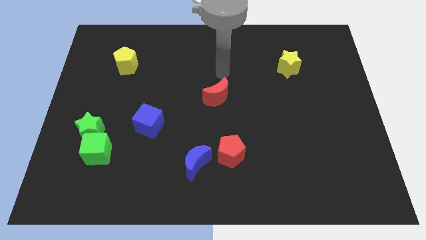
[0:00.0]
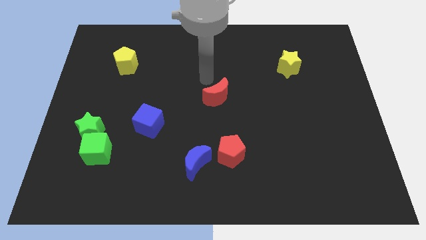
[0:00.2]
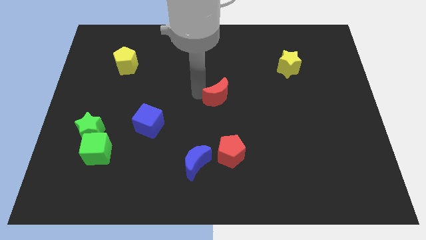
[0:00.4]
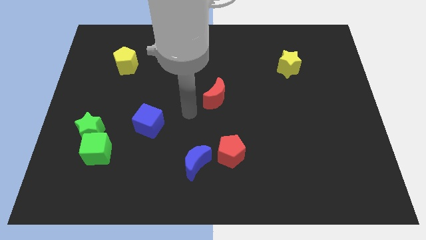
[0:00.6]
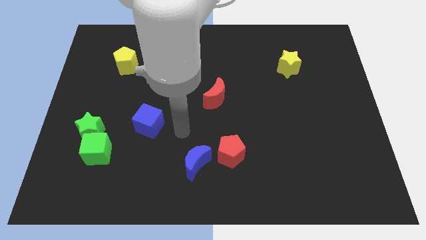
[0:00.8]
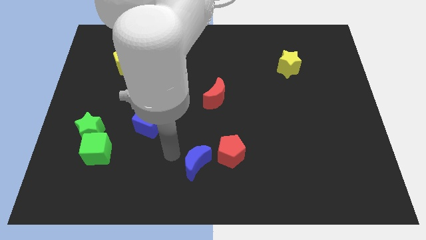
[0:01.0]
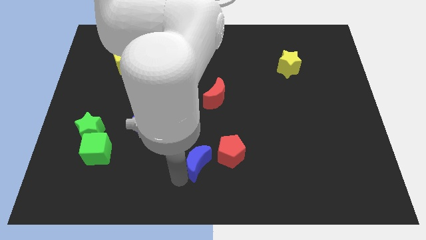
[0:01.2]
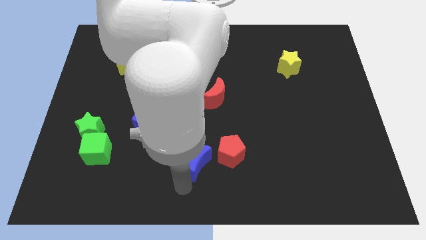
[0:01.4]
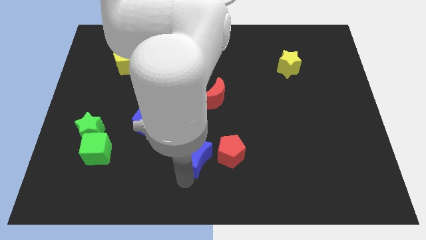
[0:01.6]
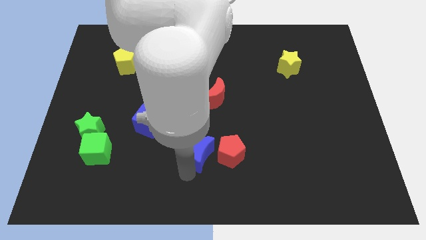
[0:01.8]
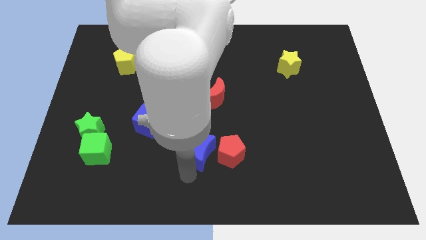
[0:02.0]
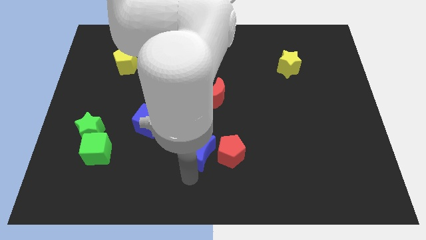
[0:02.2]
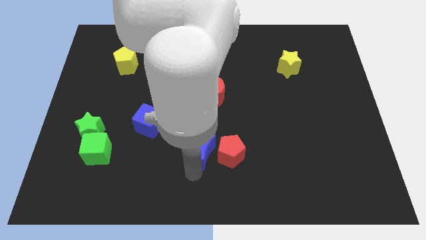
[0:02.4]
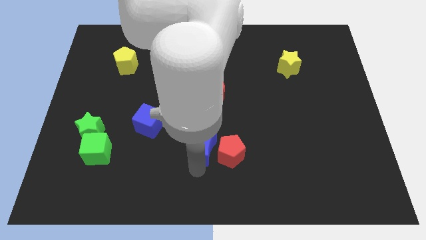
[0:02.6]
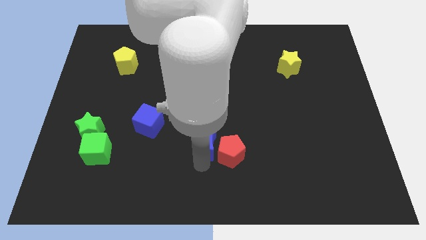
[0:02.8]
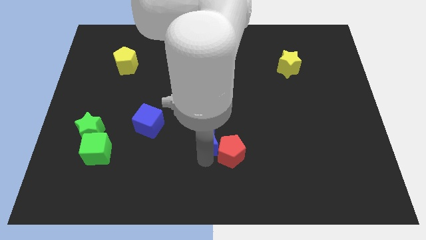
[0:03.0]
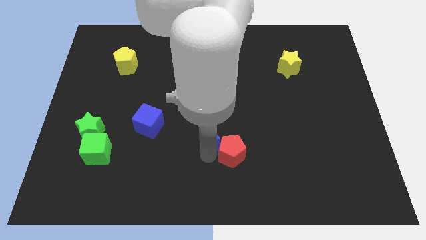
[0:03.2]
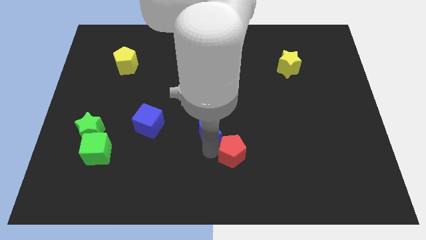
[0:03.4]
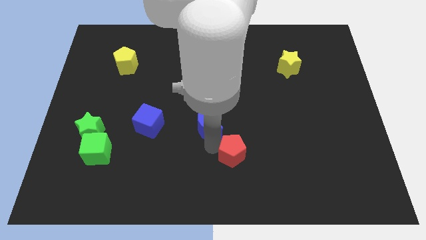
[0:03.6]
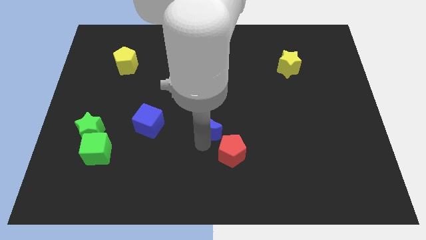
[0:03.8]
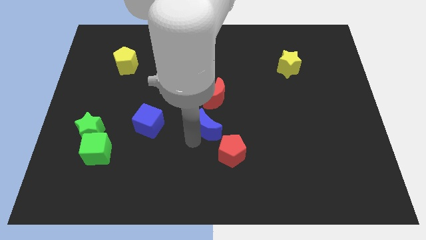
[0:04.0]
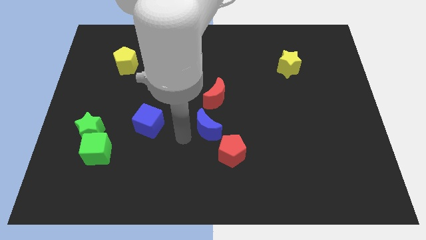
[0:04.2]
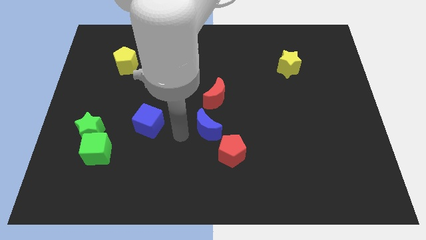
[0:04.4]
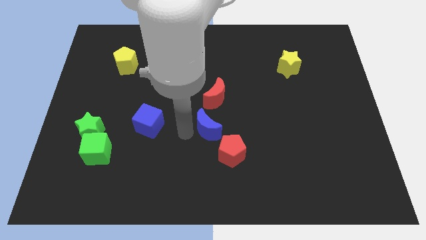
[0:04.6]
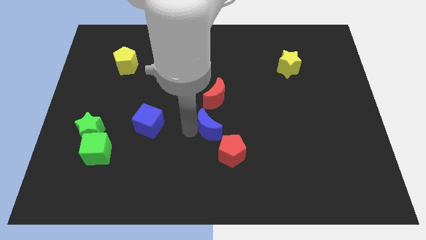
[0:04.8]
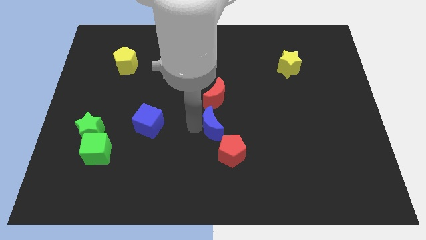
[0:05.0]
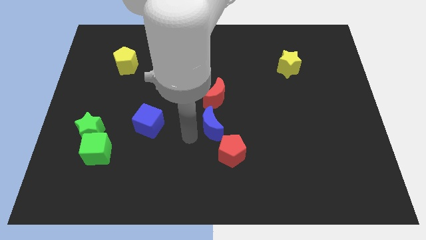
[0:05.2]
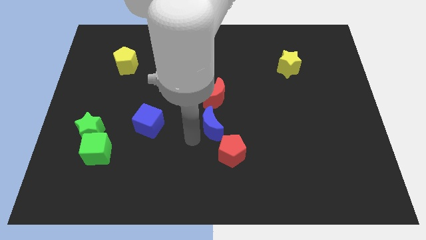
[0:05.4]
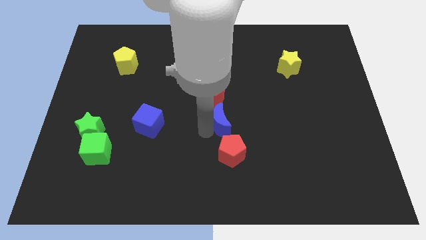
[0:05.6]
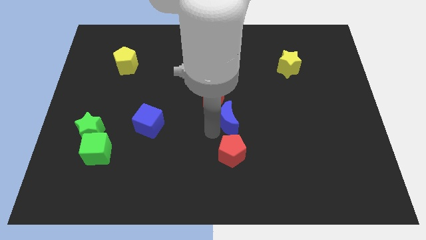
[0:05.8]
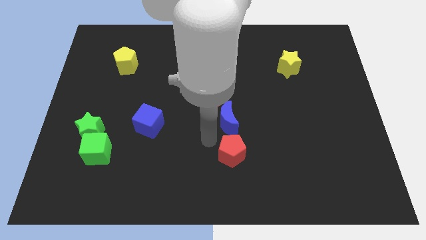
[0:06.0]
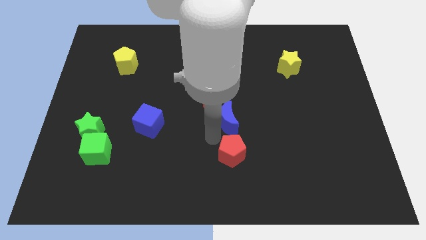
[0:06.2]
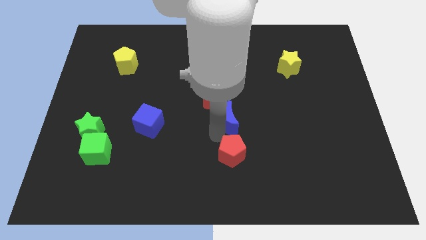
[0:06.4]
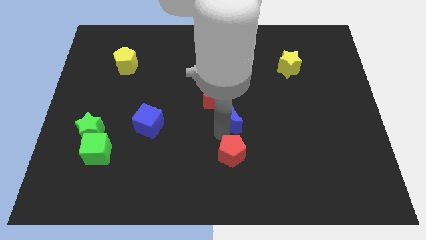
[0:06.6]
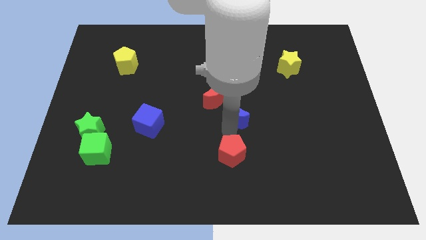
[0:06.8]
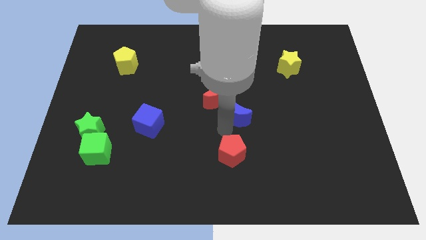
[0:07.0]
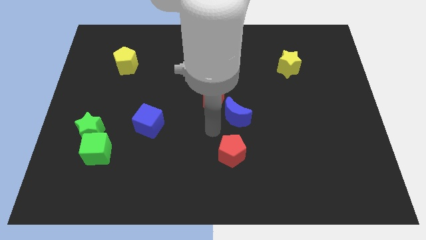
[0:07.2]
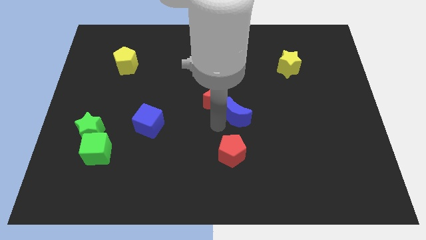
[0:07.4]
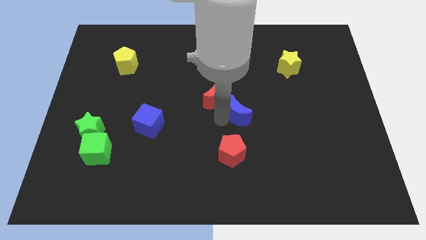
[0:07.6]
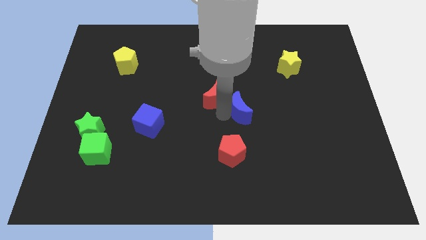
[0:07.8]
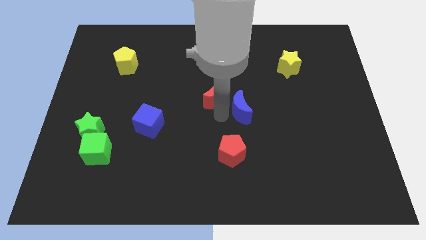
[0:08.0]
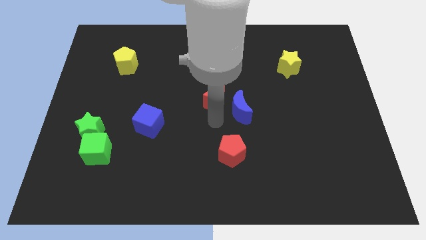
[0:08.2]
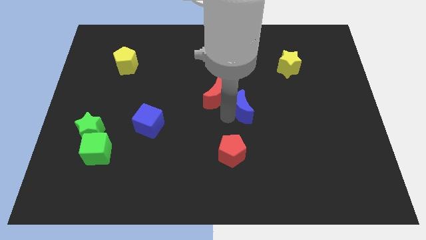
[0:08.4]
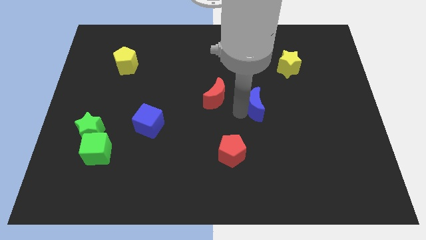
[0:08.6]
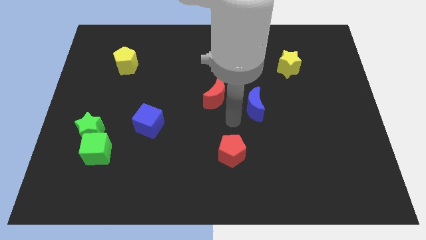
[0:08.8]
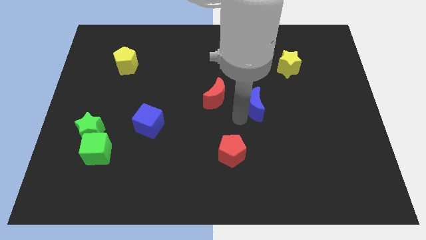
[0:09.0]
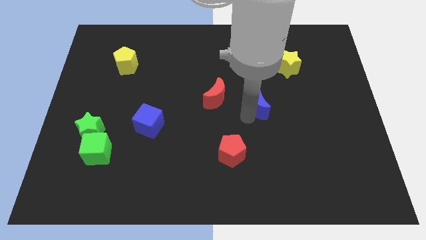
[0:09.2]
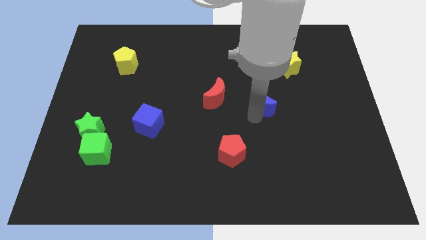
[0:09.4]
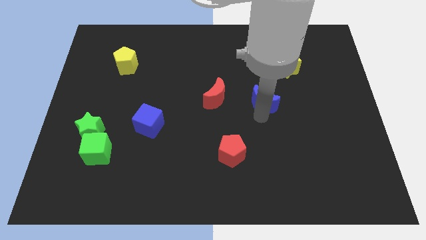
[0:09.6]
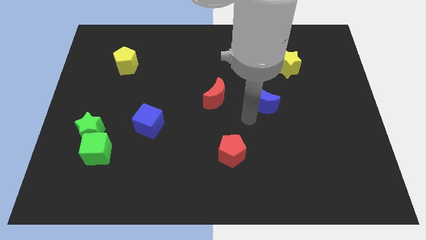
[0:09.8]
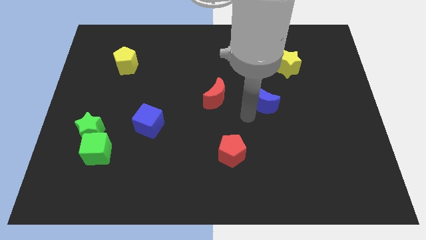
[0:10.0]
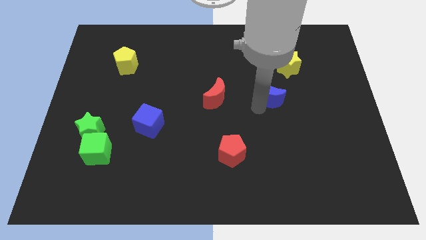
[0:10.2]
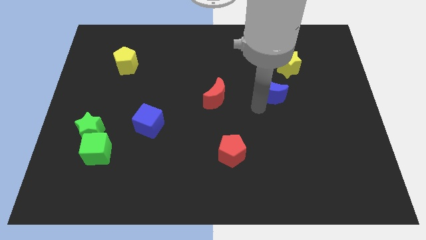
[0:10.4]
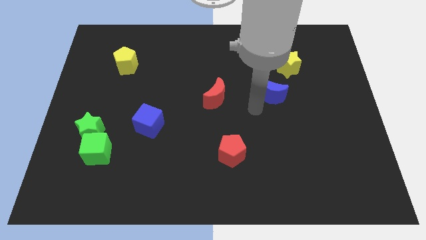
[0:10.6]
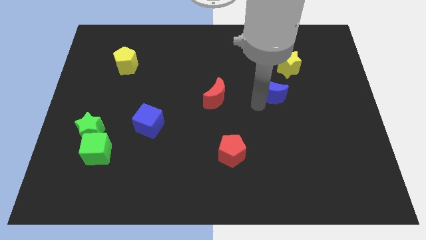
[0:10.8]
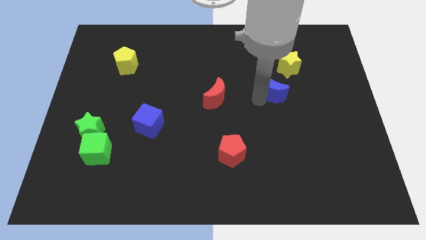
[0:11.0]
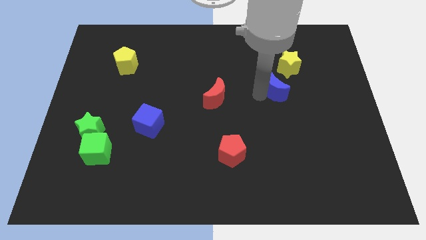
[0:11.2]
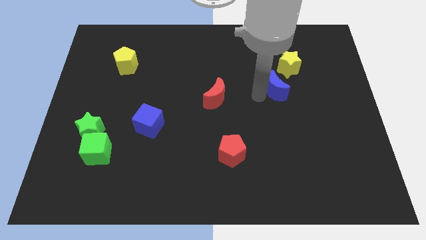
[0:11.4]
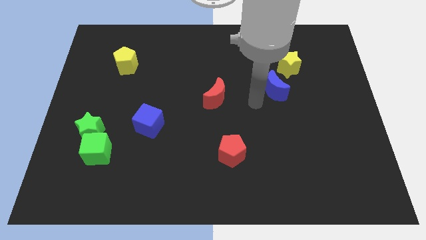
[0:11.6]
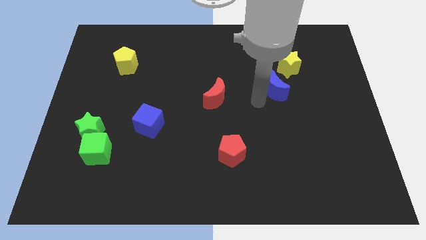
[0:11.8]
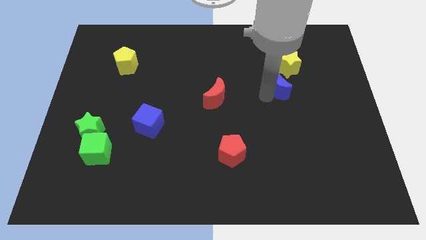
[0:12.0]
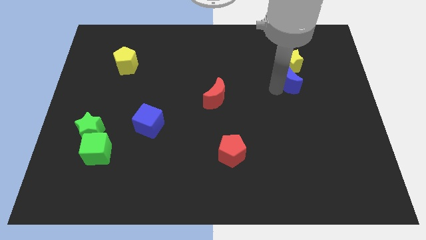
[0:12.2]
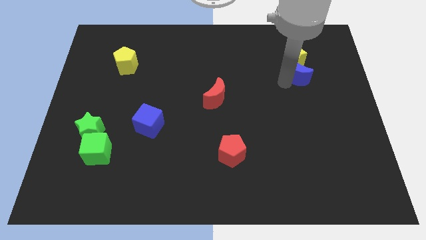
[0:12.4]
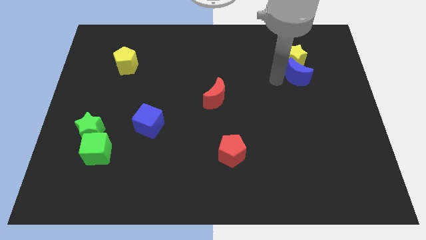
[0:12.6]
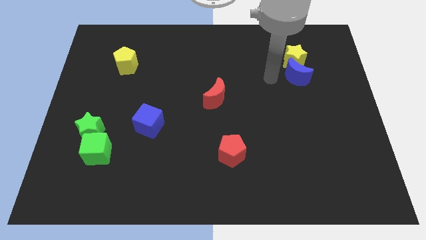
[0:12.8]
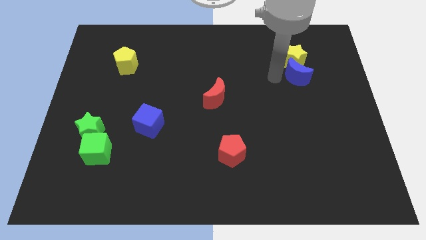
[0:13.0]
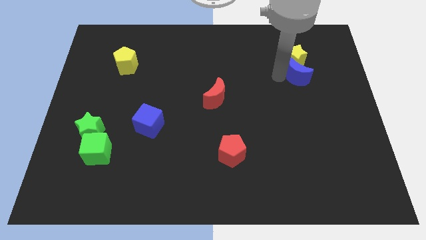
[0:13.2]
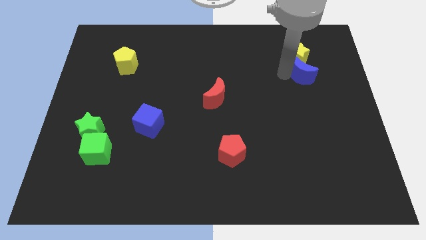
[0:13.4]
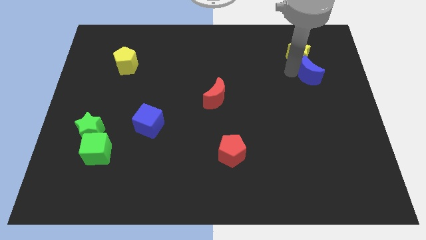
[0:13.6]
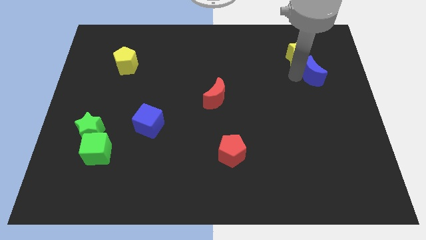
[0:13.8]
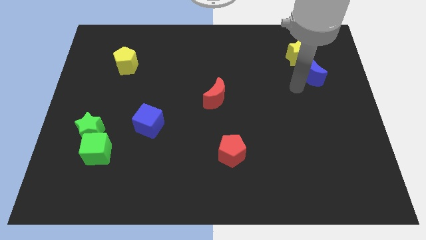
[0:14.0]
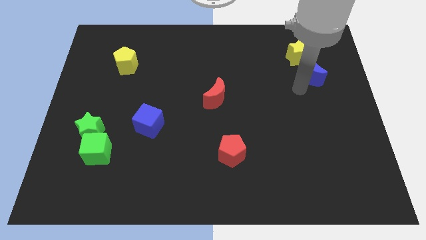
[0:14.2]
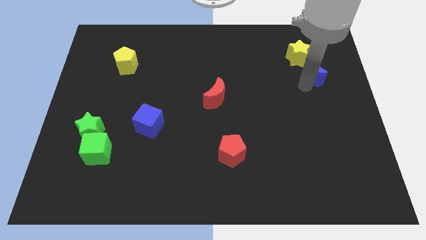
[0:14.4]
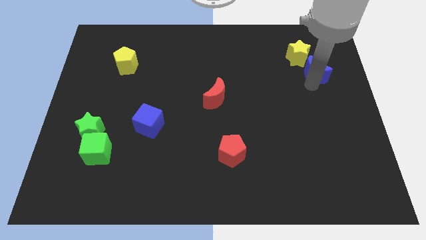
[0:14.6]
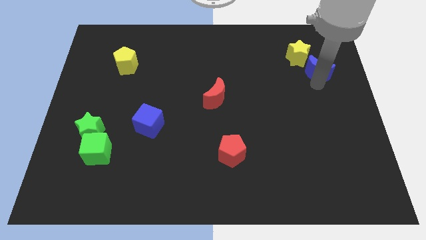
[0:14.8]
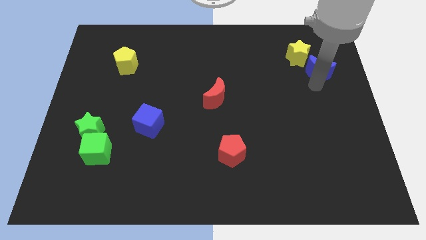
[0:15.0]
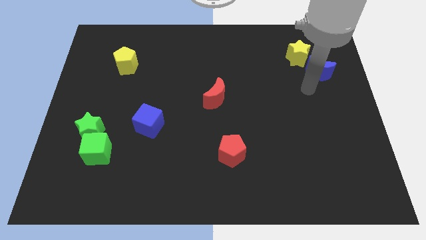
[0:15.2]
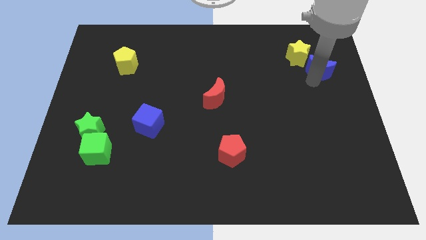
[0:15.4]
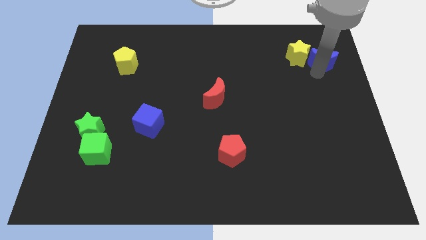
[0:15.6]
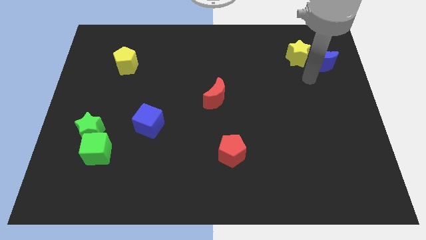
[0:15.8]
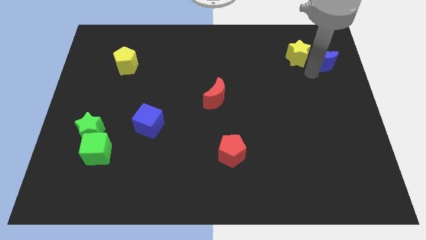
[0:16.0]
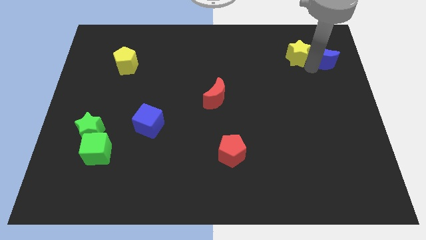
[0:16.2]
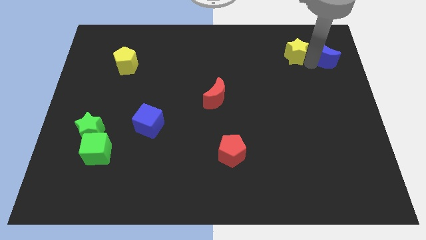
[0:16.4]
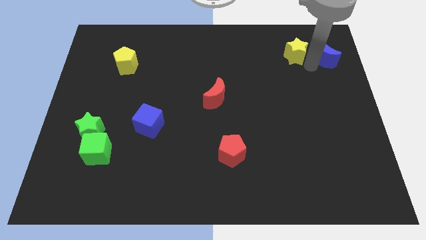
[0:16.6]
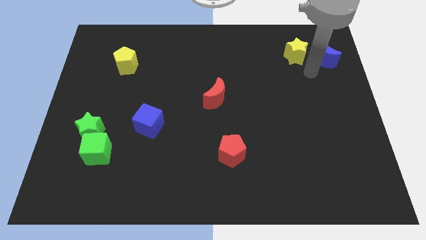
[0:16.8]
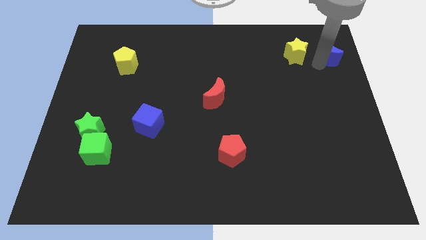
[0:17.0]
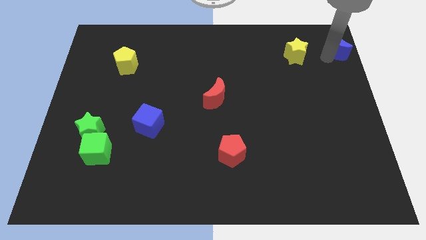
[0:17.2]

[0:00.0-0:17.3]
put the blue moon to the top right corner
